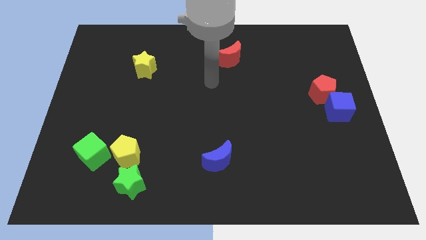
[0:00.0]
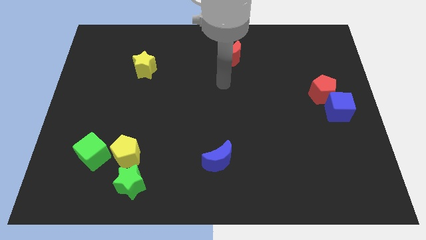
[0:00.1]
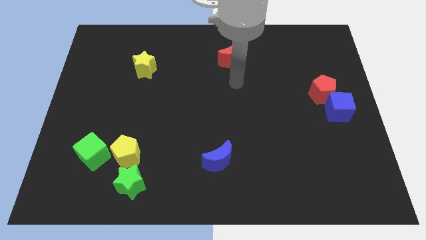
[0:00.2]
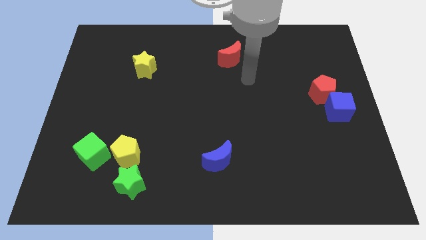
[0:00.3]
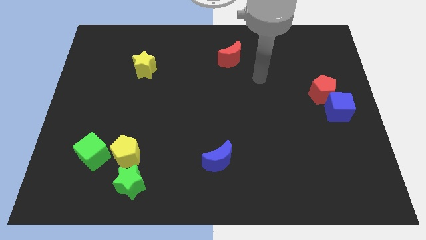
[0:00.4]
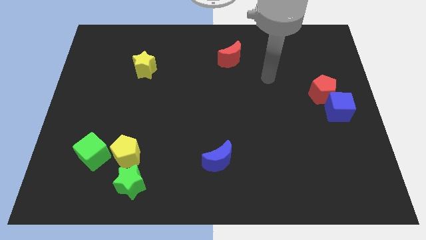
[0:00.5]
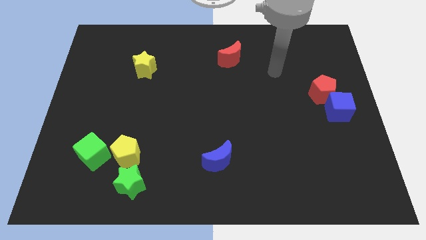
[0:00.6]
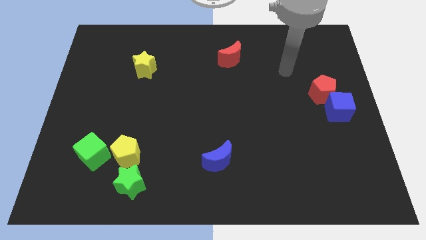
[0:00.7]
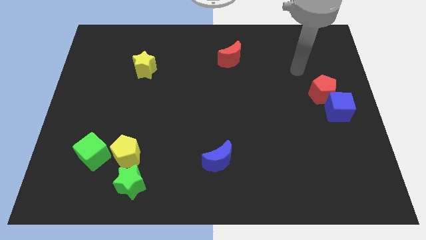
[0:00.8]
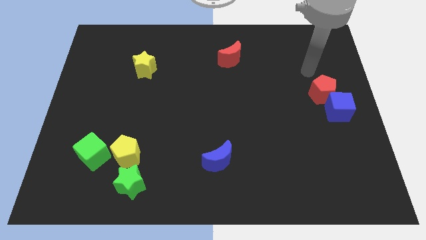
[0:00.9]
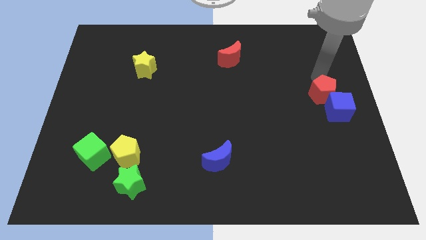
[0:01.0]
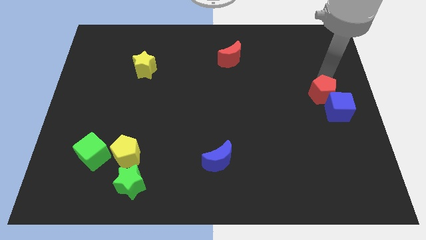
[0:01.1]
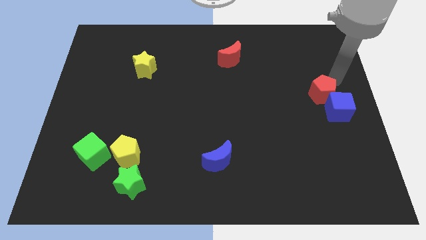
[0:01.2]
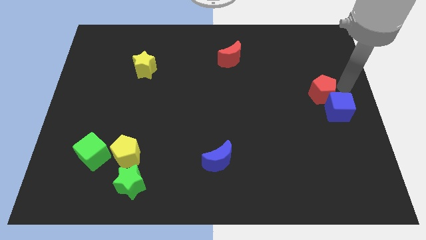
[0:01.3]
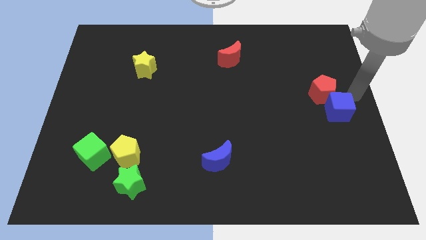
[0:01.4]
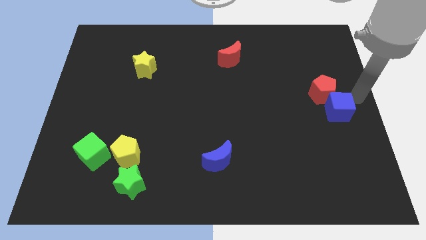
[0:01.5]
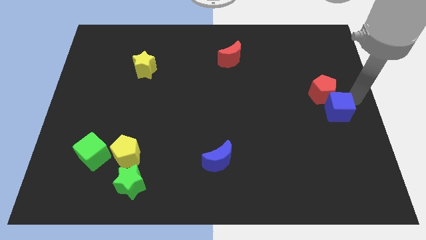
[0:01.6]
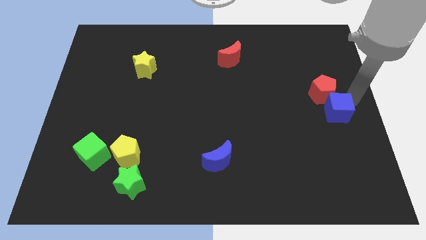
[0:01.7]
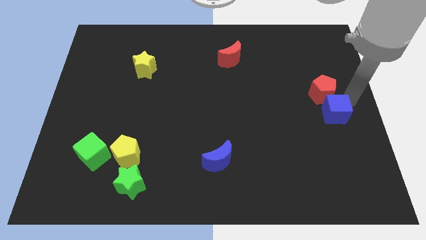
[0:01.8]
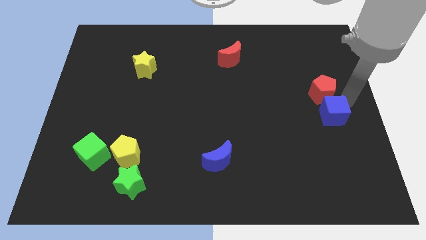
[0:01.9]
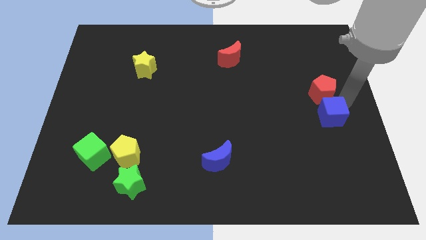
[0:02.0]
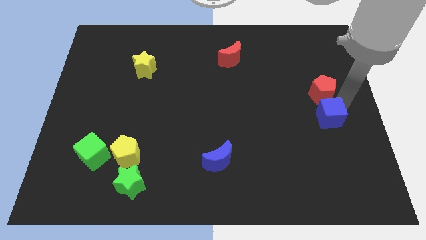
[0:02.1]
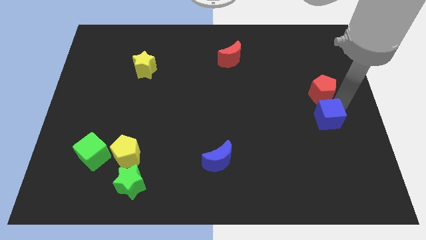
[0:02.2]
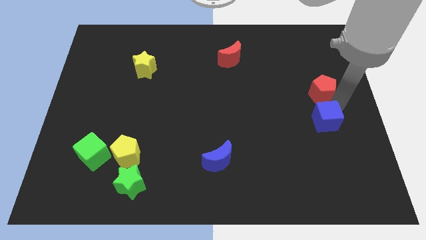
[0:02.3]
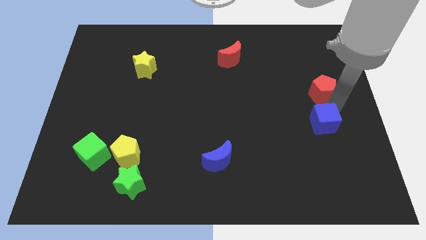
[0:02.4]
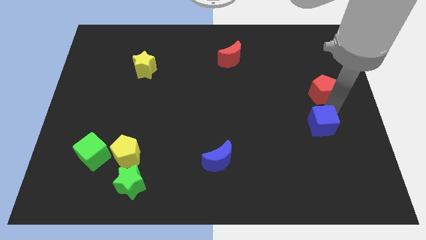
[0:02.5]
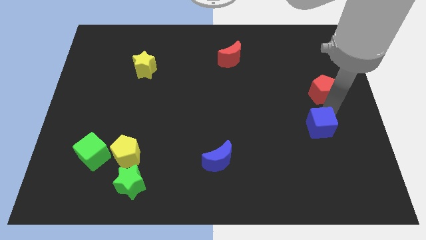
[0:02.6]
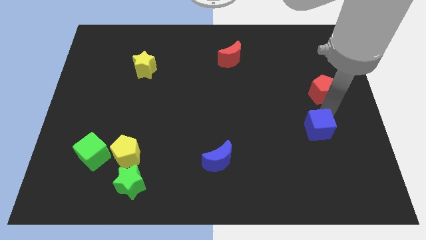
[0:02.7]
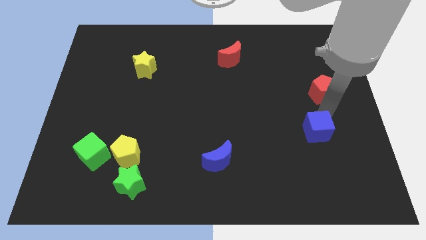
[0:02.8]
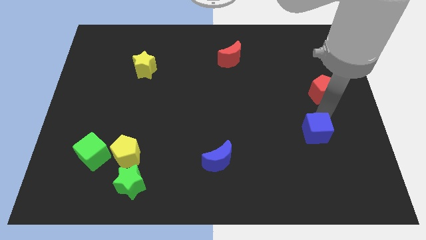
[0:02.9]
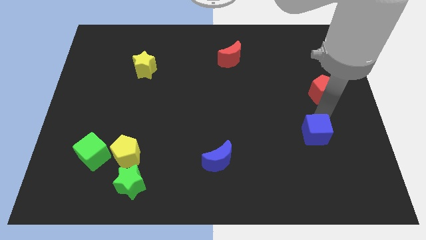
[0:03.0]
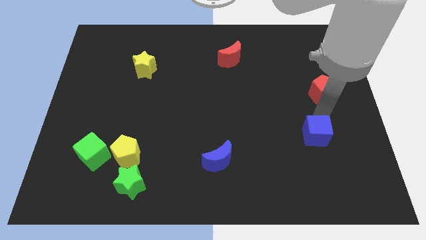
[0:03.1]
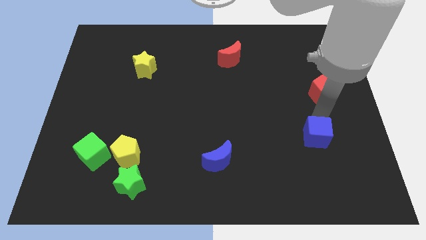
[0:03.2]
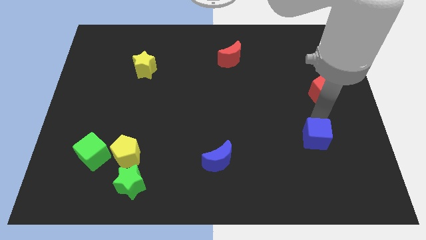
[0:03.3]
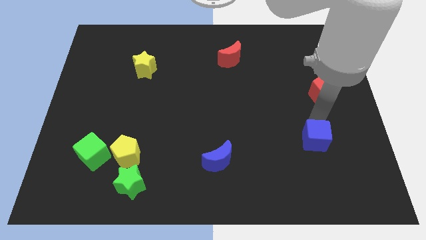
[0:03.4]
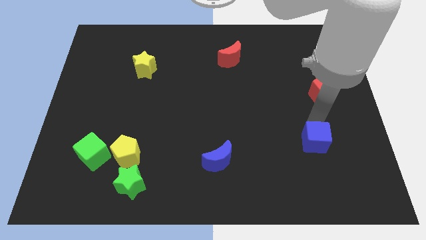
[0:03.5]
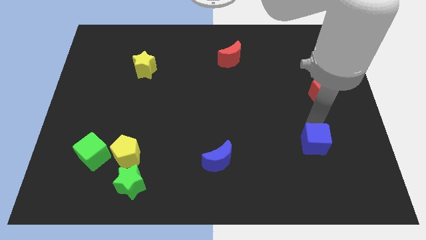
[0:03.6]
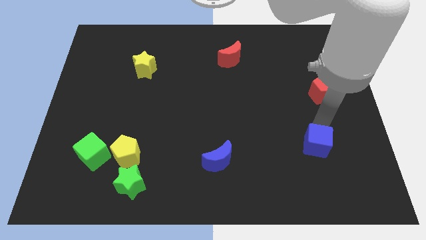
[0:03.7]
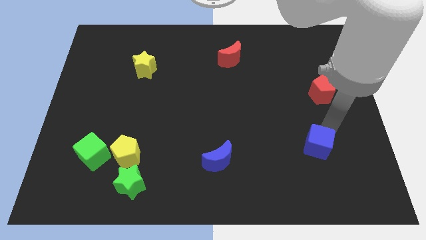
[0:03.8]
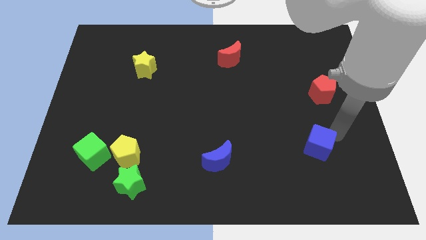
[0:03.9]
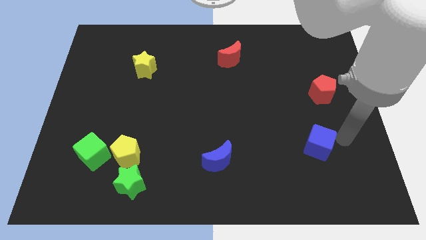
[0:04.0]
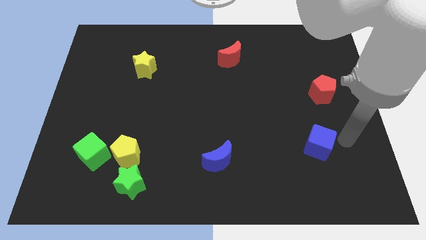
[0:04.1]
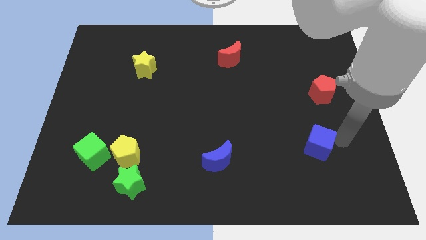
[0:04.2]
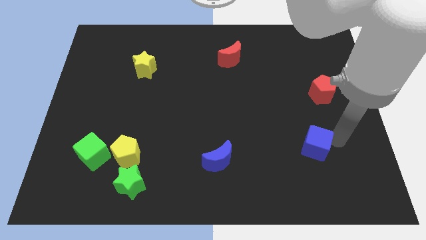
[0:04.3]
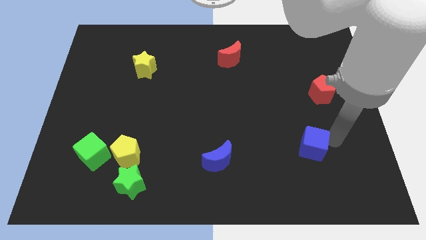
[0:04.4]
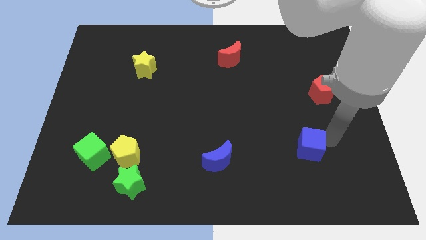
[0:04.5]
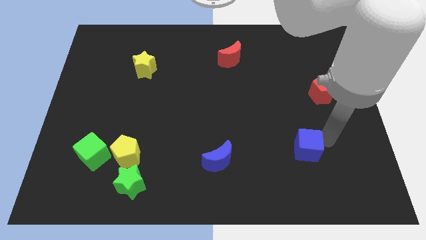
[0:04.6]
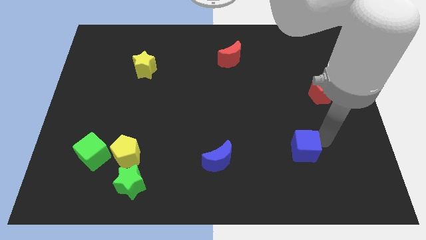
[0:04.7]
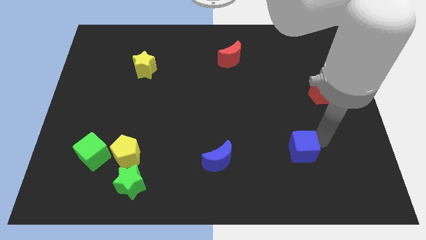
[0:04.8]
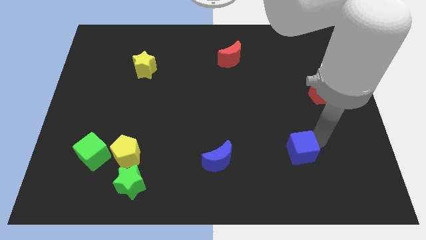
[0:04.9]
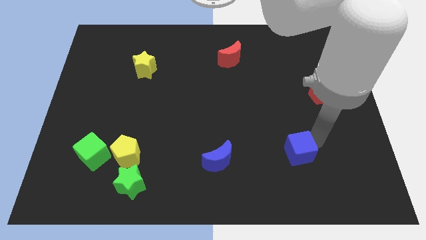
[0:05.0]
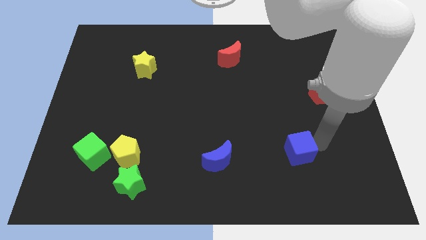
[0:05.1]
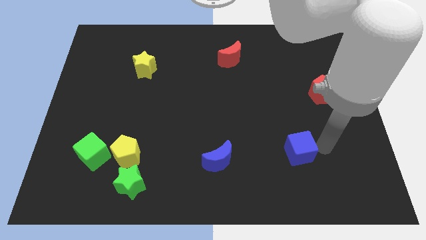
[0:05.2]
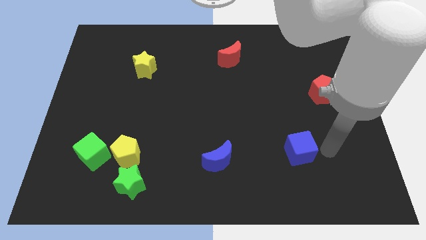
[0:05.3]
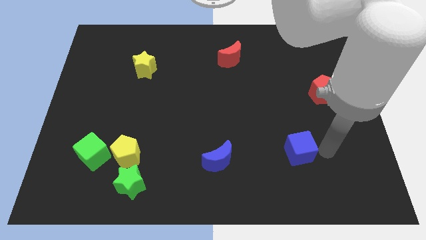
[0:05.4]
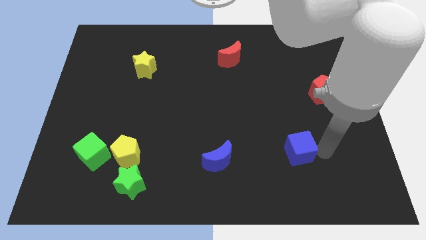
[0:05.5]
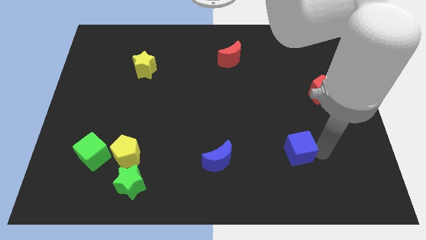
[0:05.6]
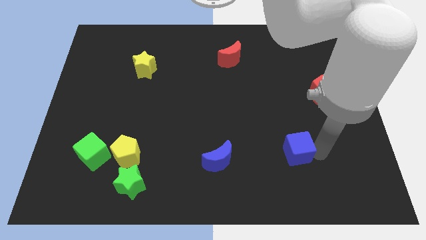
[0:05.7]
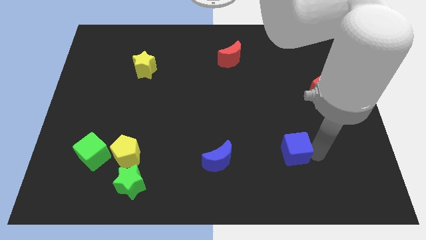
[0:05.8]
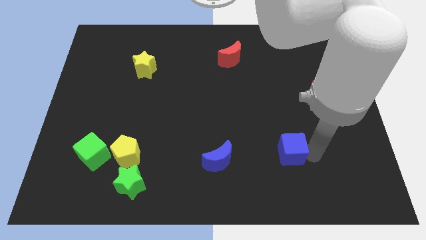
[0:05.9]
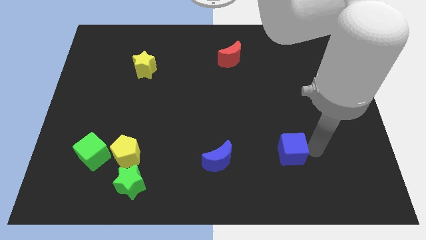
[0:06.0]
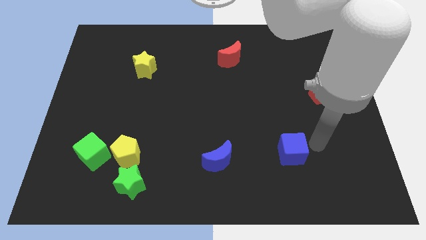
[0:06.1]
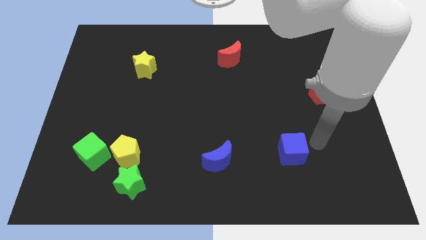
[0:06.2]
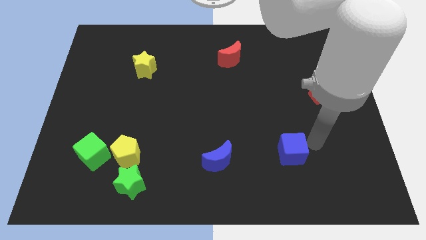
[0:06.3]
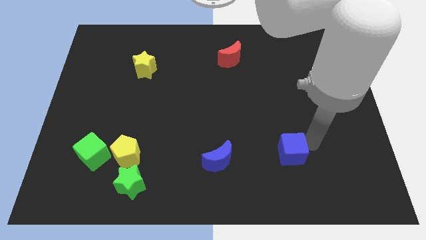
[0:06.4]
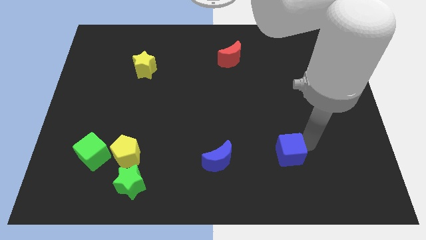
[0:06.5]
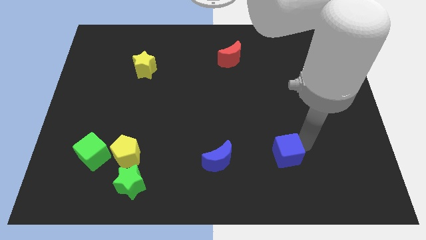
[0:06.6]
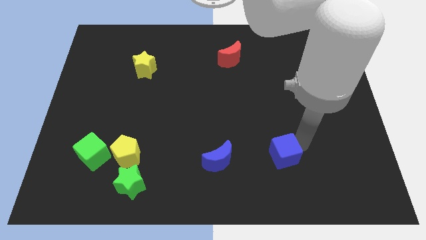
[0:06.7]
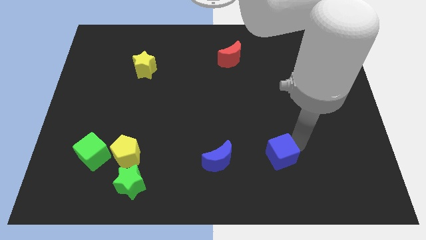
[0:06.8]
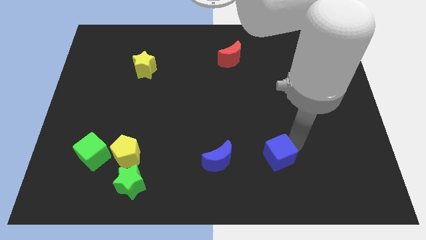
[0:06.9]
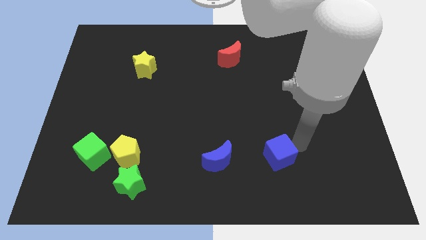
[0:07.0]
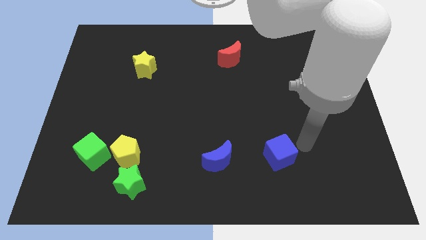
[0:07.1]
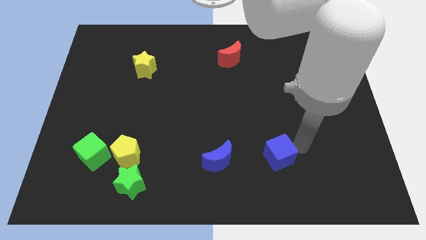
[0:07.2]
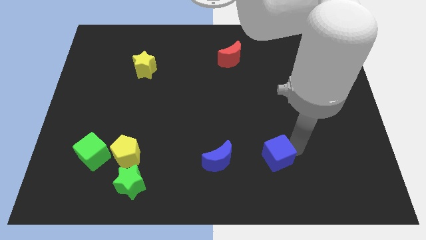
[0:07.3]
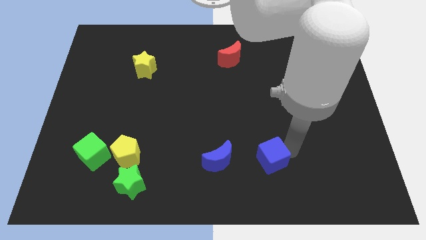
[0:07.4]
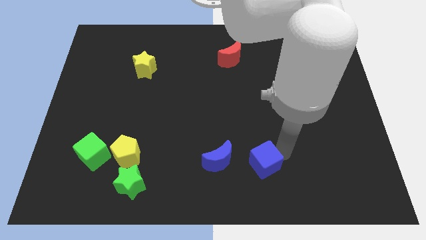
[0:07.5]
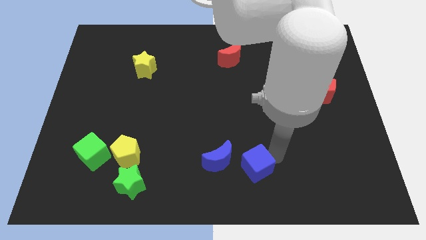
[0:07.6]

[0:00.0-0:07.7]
put the blue cube to the bottom
